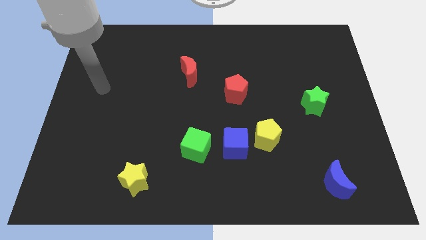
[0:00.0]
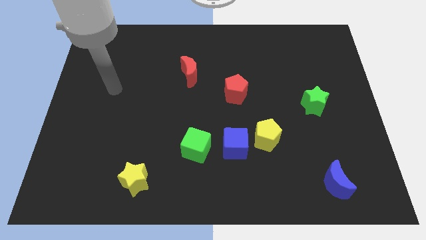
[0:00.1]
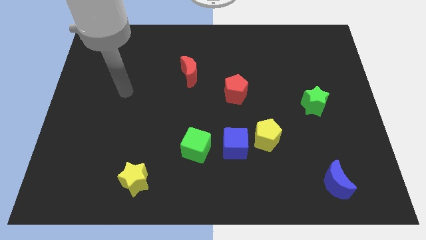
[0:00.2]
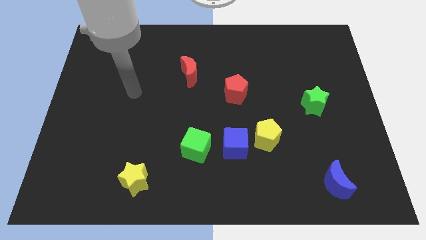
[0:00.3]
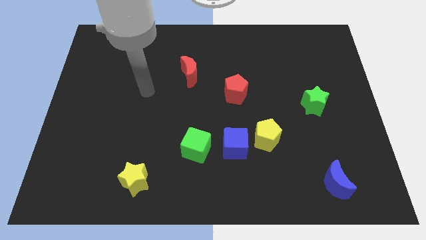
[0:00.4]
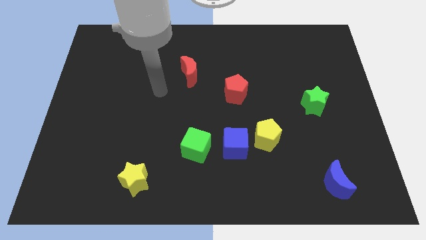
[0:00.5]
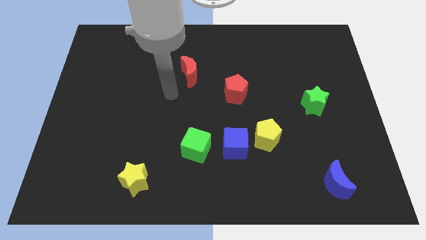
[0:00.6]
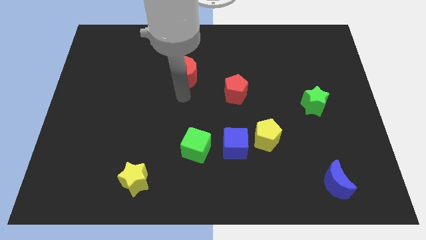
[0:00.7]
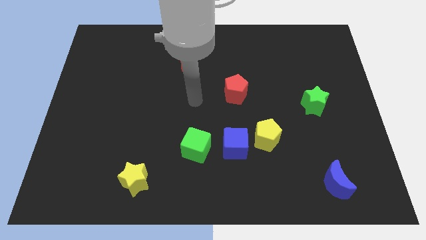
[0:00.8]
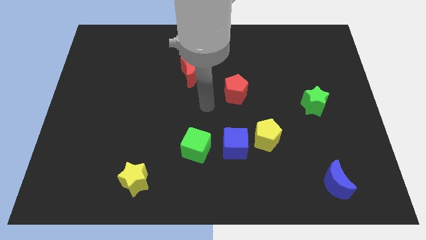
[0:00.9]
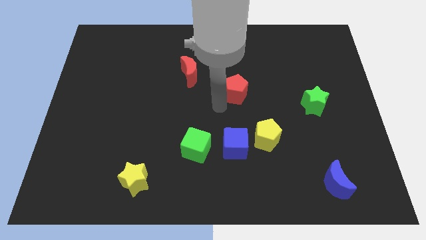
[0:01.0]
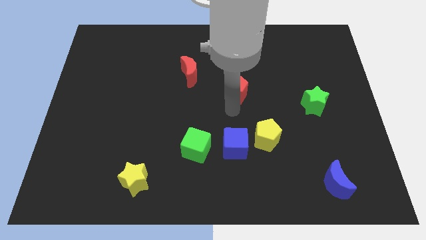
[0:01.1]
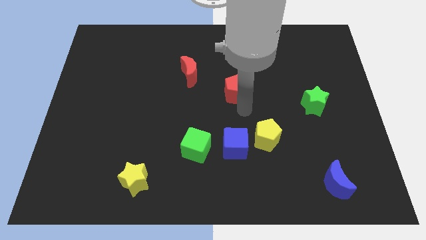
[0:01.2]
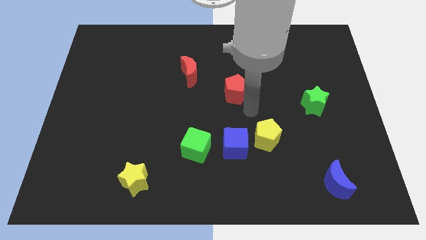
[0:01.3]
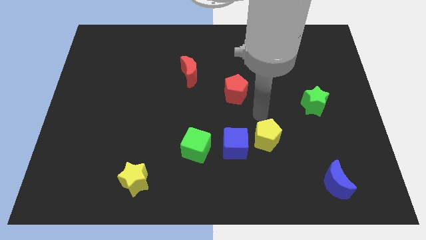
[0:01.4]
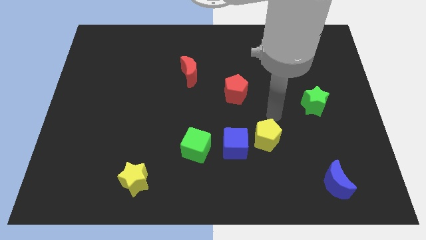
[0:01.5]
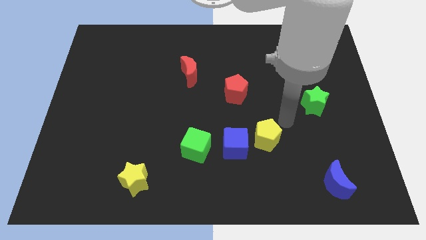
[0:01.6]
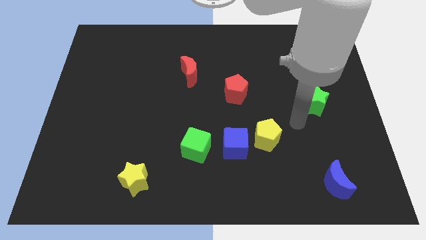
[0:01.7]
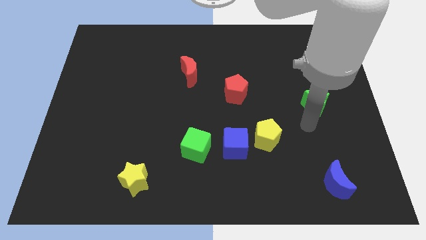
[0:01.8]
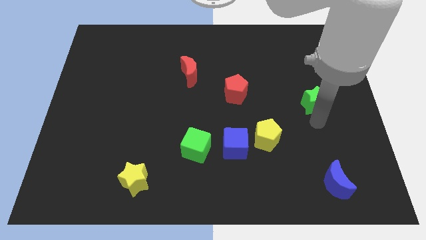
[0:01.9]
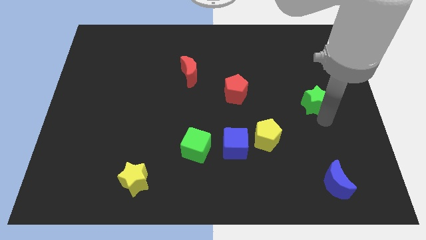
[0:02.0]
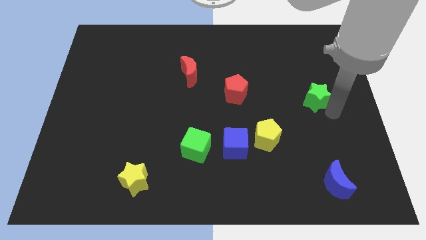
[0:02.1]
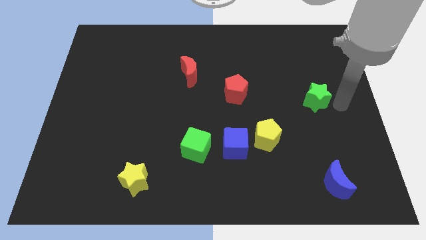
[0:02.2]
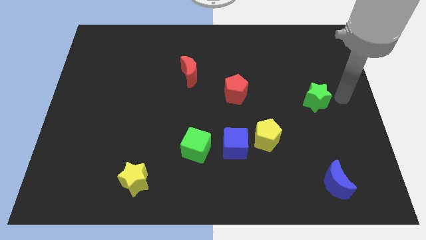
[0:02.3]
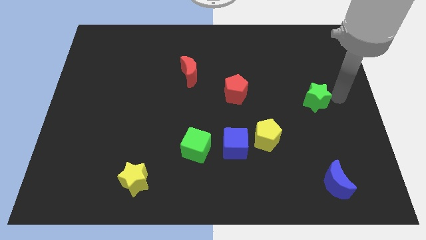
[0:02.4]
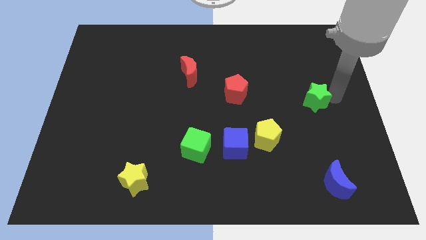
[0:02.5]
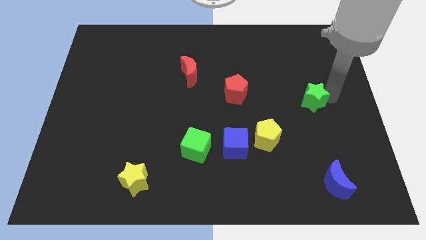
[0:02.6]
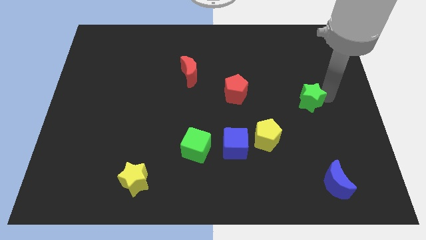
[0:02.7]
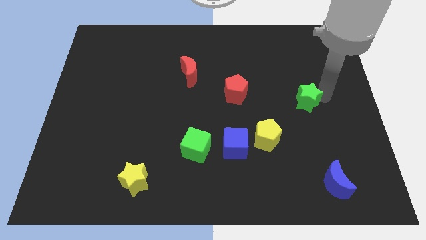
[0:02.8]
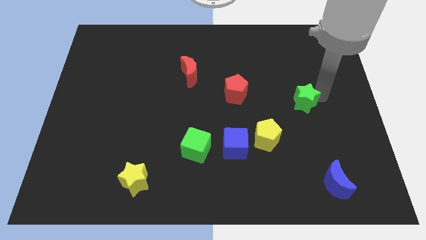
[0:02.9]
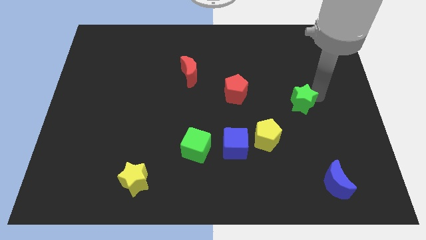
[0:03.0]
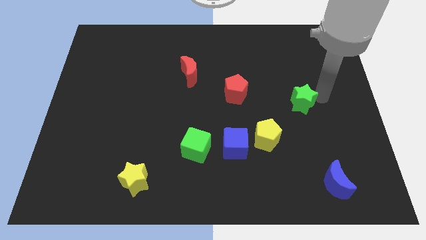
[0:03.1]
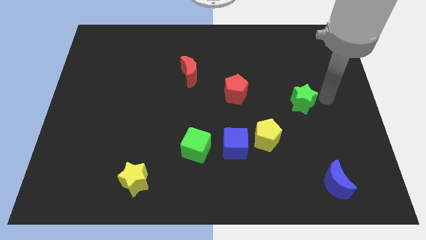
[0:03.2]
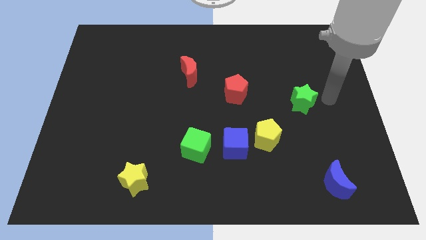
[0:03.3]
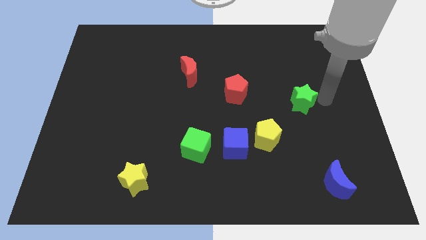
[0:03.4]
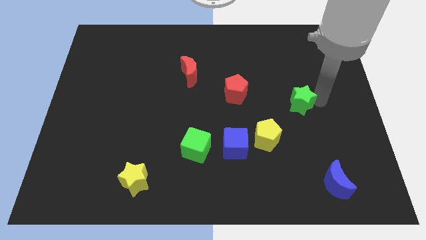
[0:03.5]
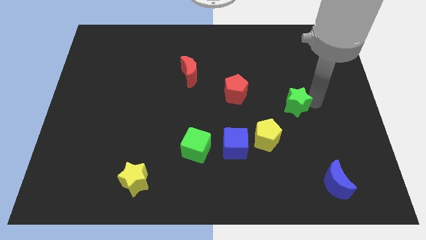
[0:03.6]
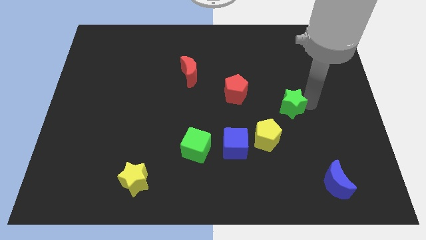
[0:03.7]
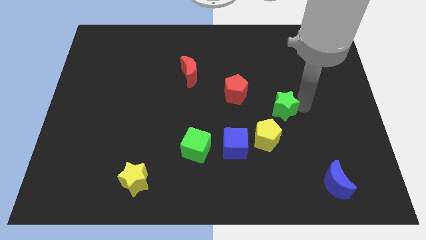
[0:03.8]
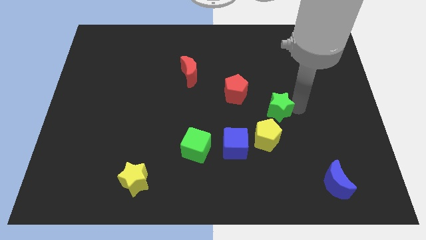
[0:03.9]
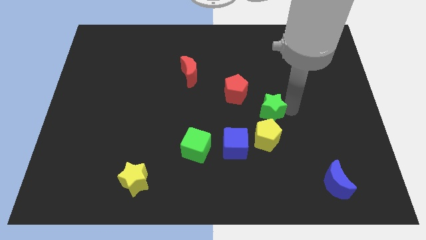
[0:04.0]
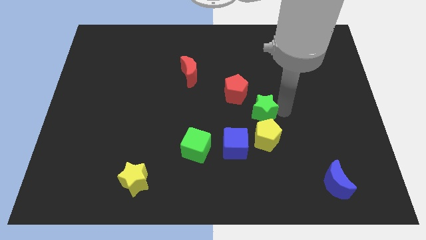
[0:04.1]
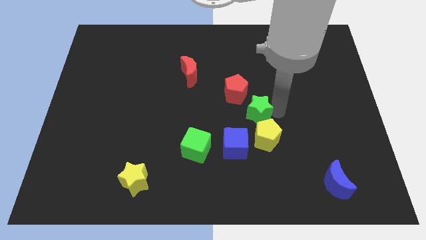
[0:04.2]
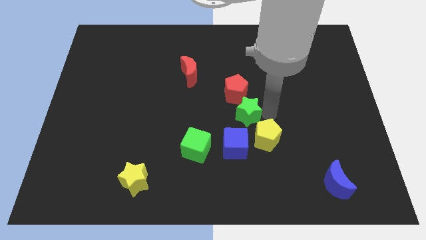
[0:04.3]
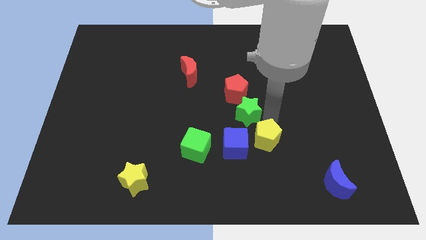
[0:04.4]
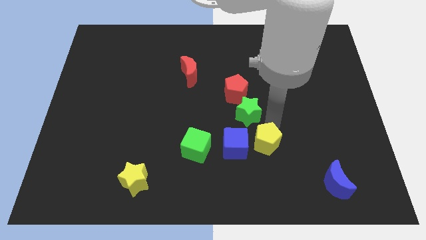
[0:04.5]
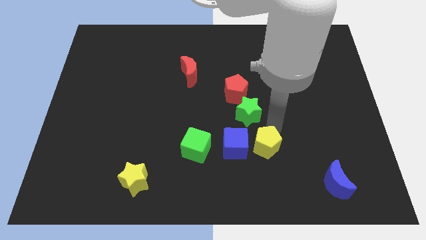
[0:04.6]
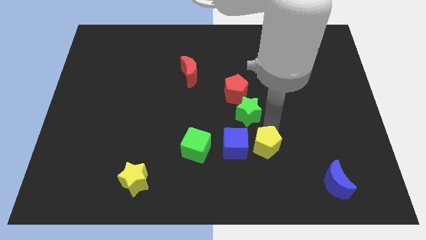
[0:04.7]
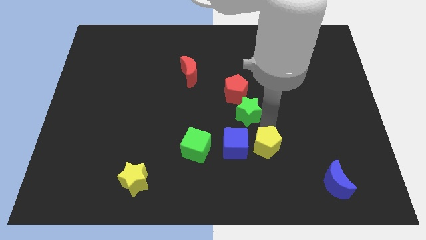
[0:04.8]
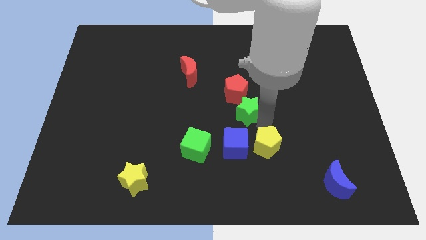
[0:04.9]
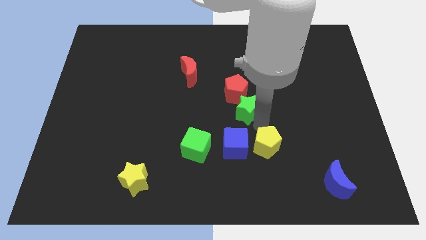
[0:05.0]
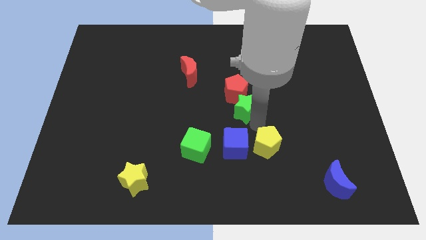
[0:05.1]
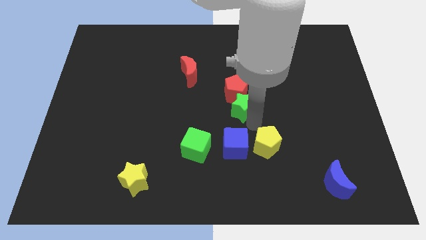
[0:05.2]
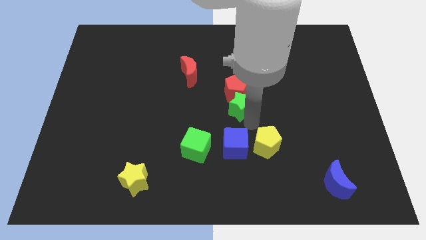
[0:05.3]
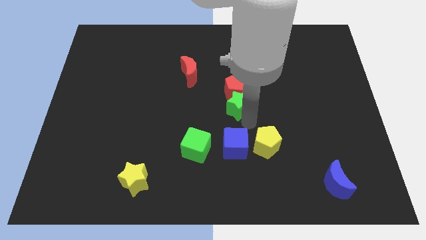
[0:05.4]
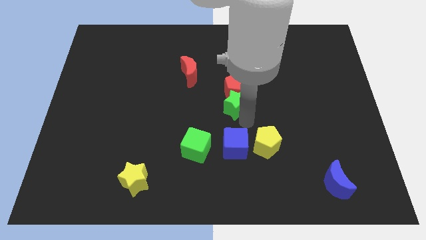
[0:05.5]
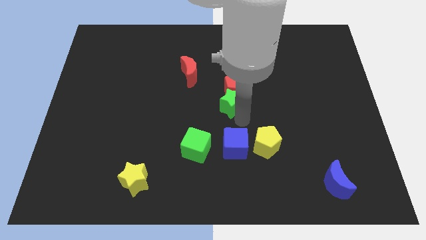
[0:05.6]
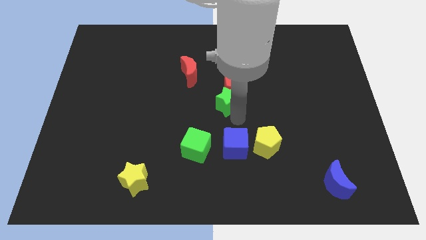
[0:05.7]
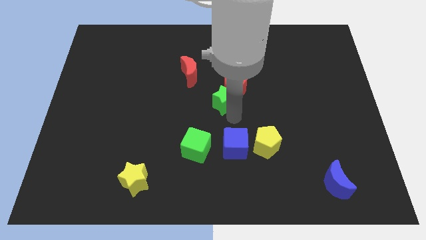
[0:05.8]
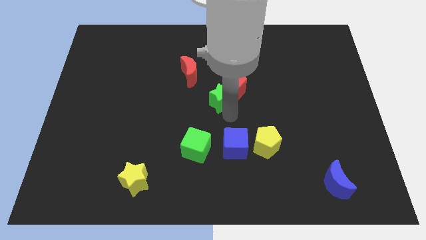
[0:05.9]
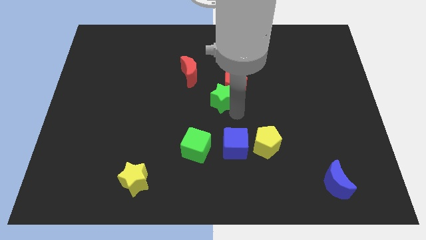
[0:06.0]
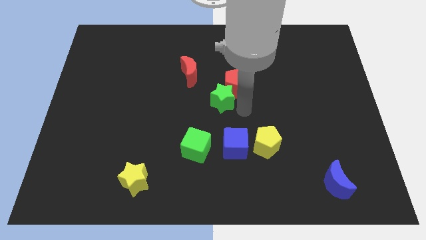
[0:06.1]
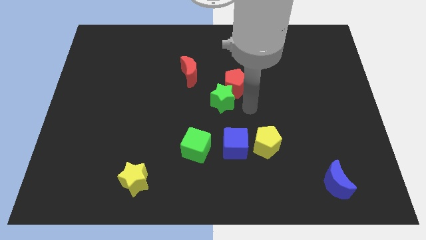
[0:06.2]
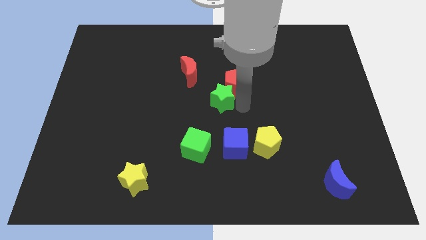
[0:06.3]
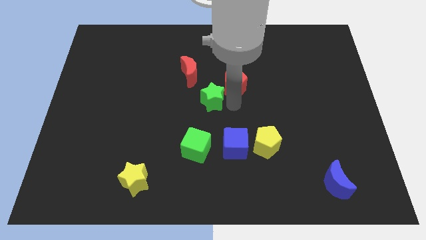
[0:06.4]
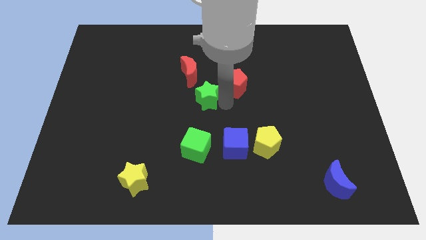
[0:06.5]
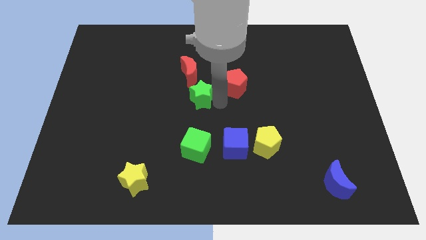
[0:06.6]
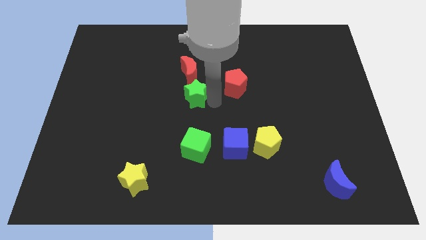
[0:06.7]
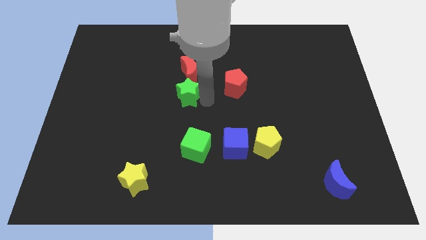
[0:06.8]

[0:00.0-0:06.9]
push the green star to the bottom left of the red moon
